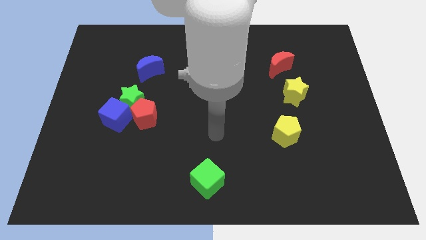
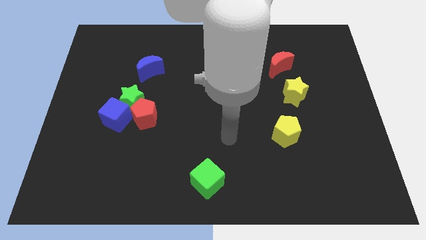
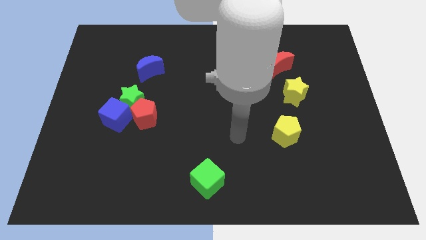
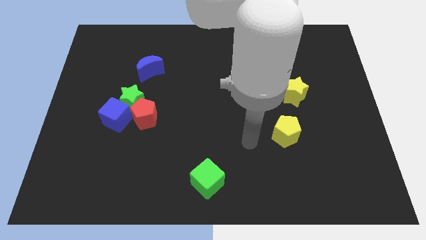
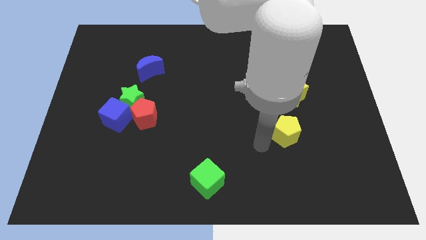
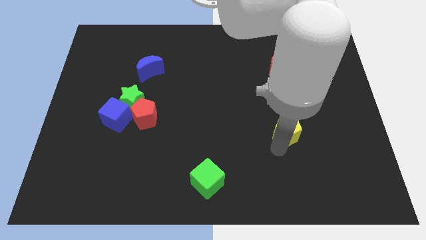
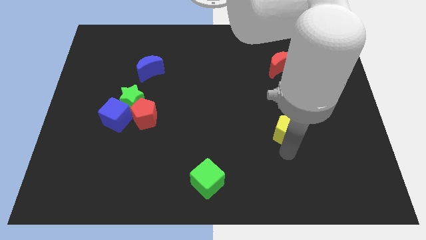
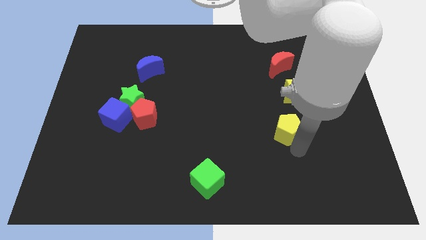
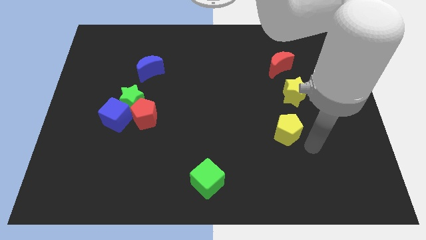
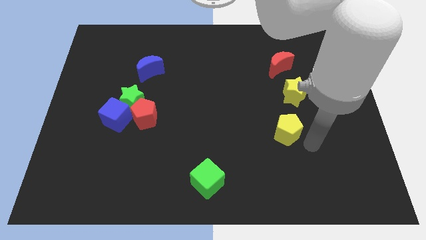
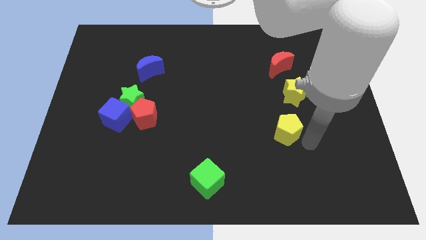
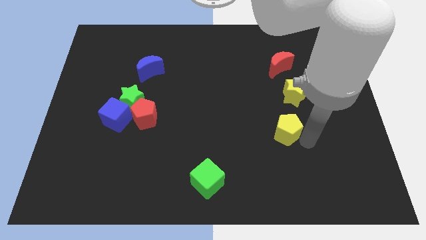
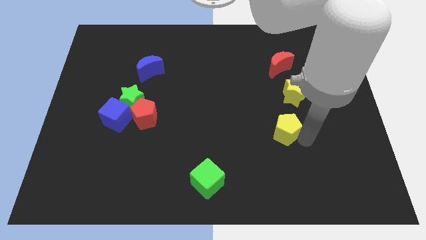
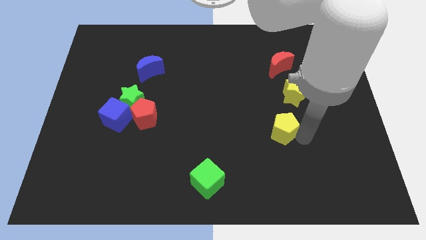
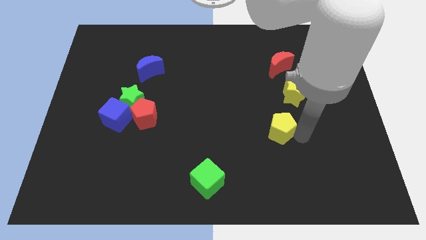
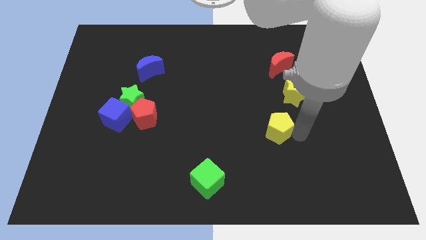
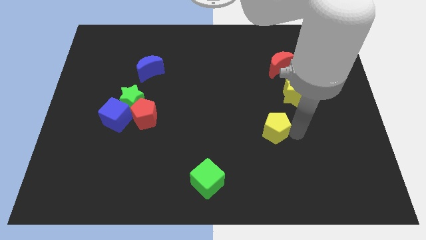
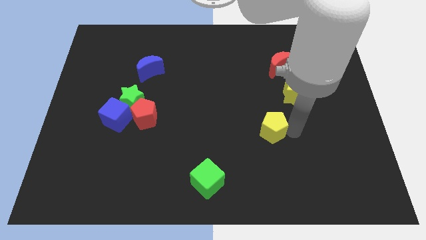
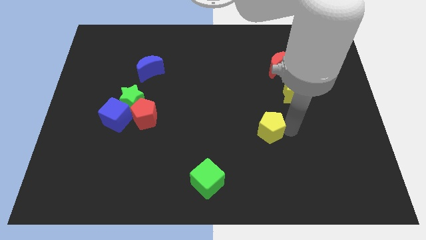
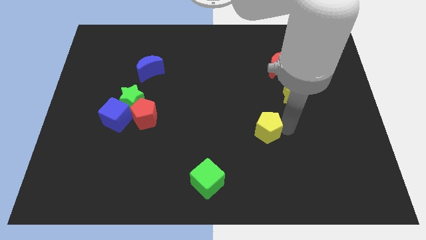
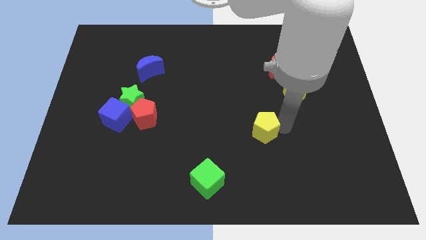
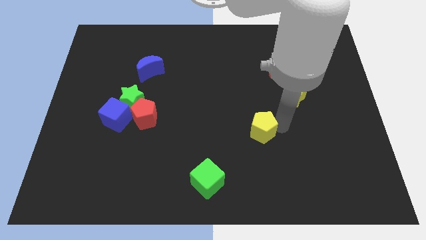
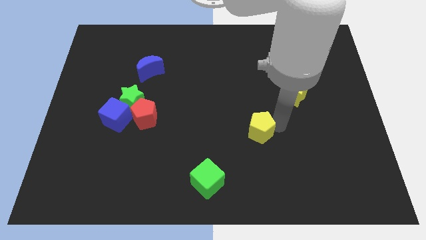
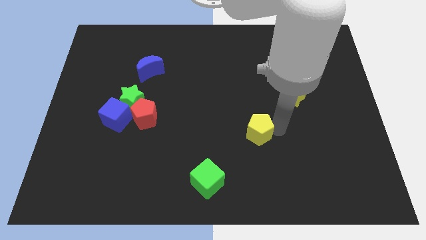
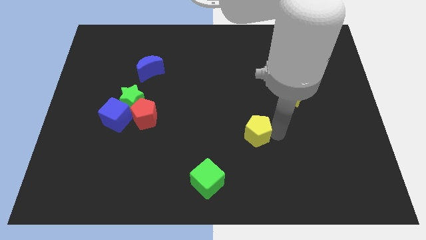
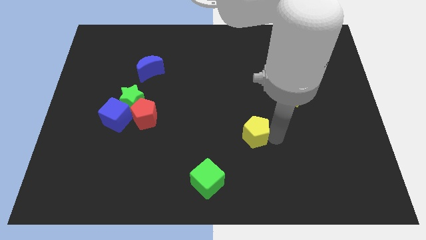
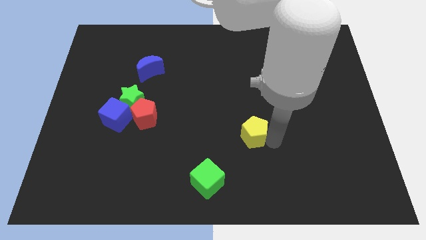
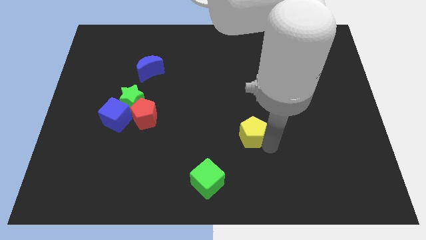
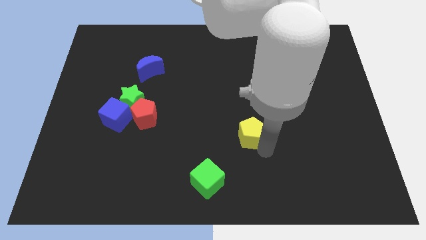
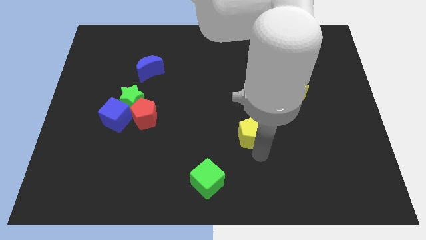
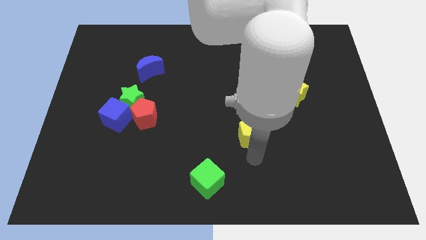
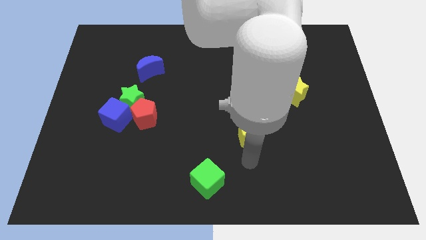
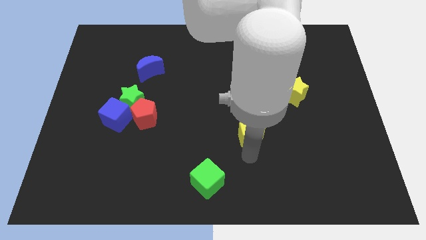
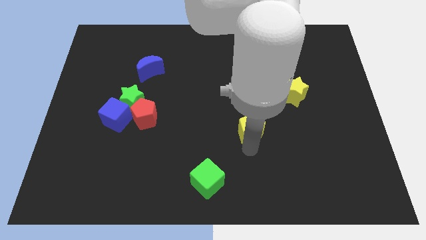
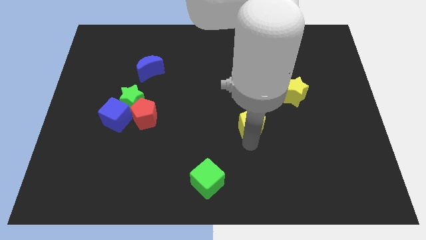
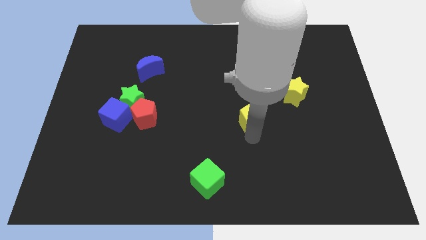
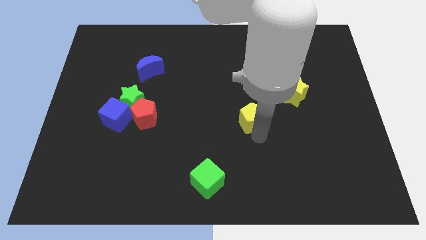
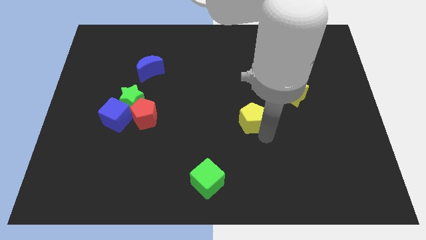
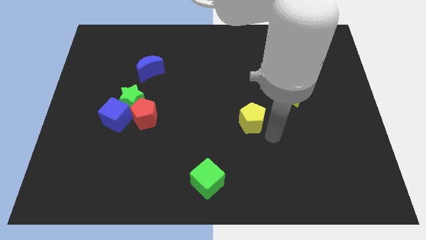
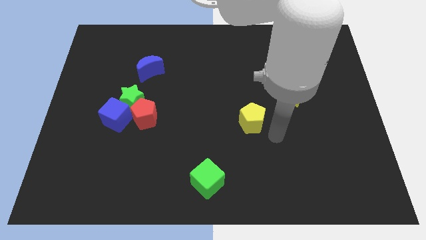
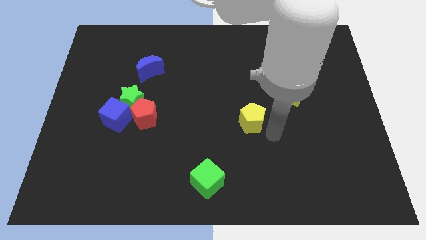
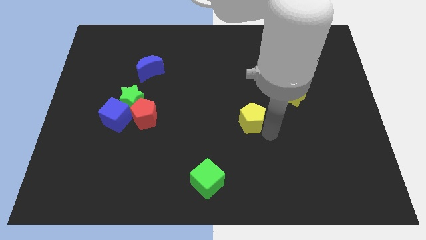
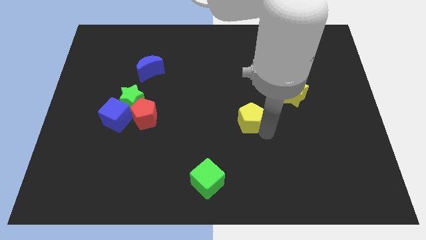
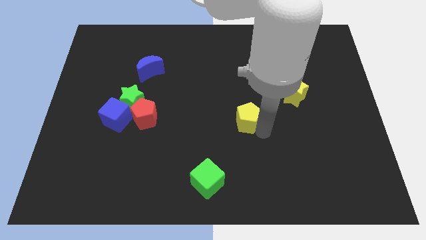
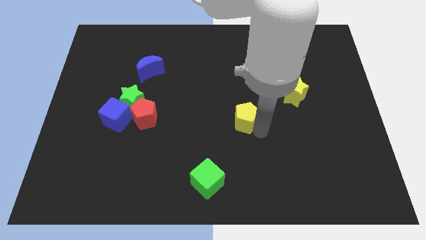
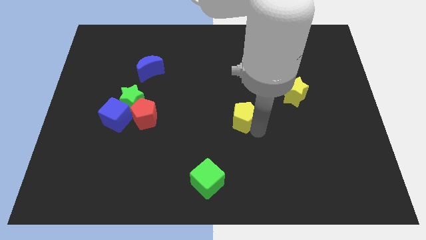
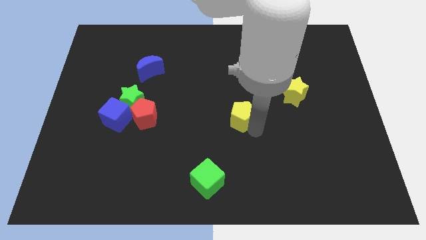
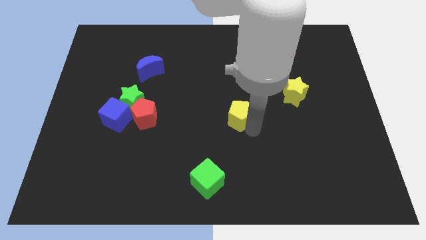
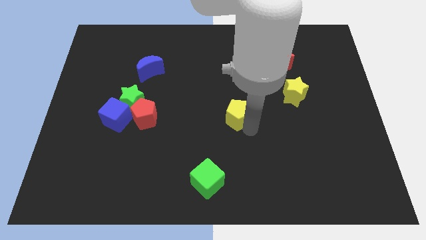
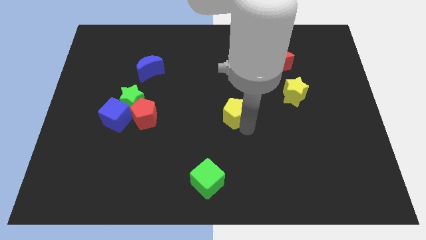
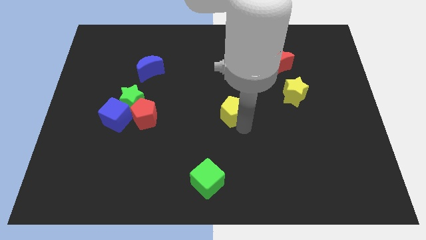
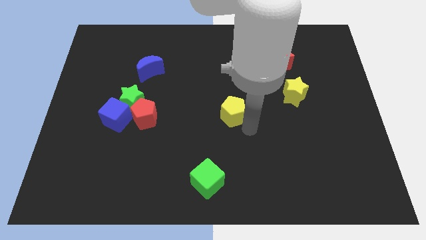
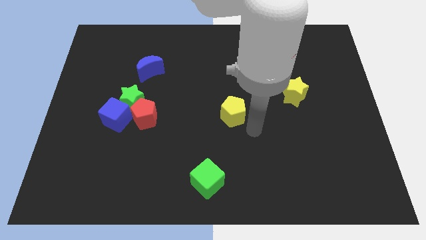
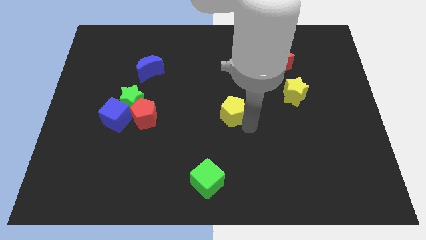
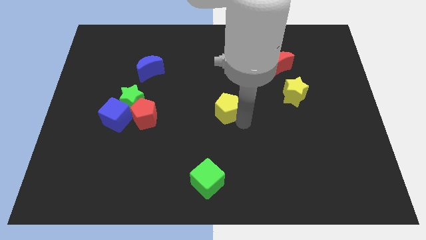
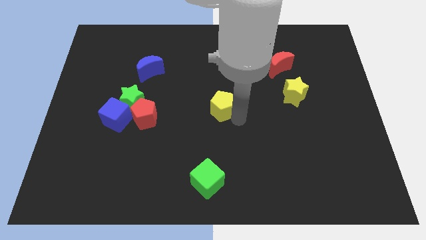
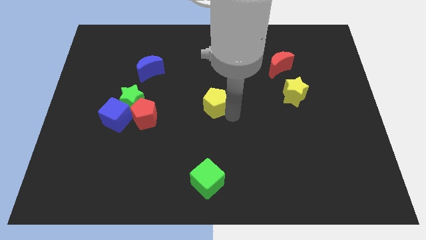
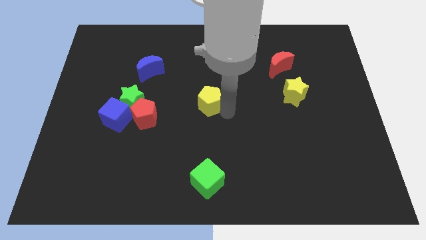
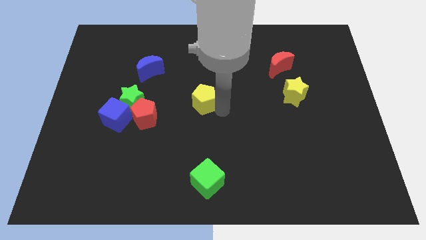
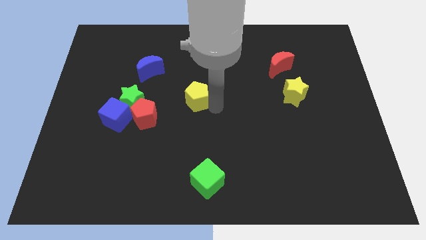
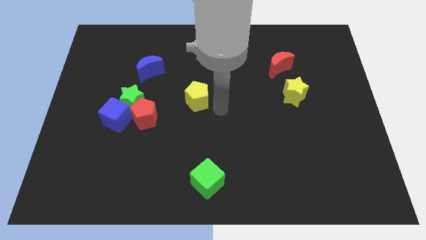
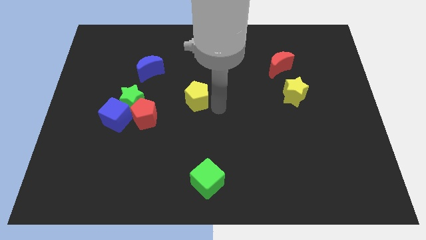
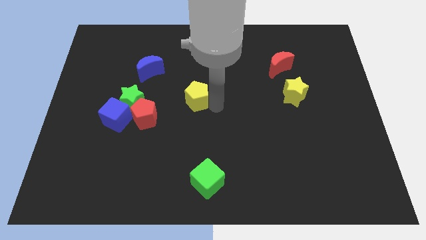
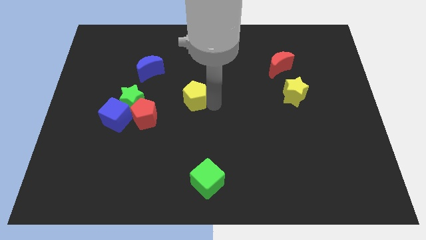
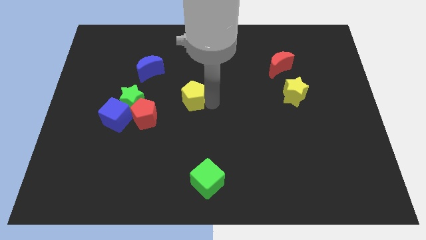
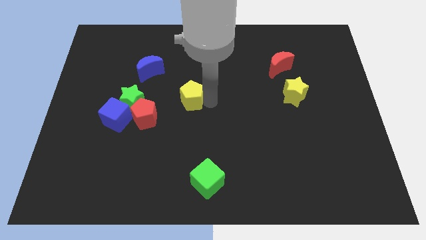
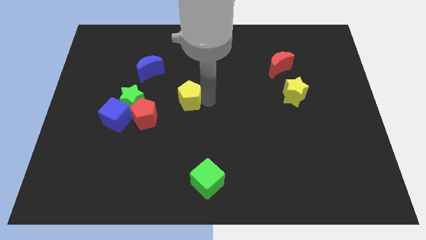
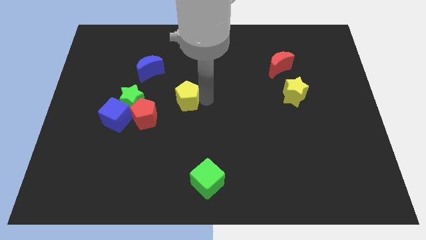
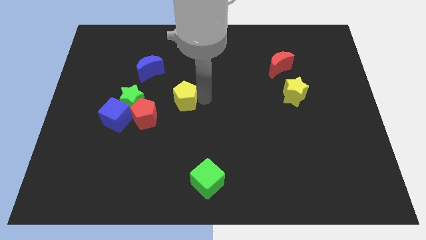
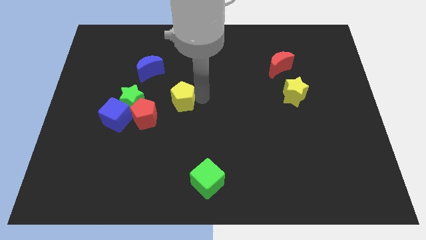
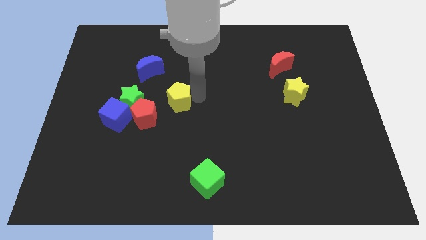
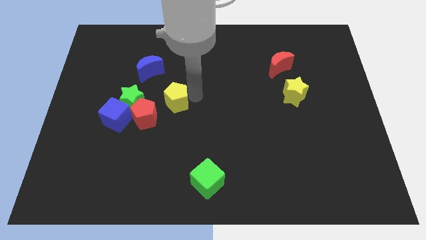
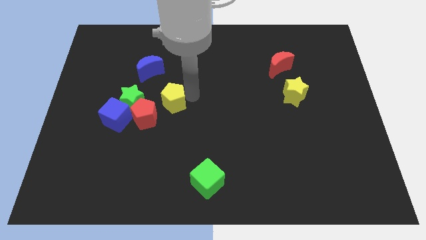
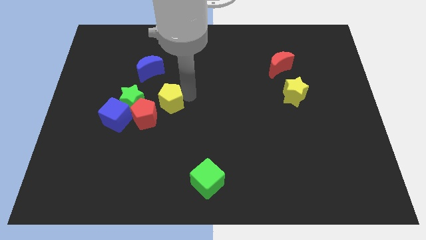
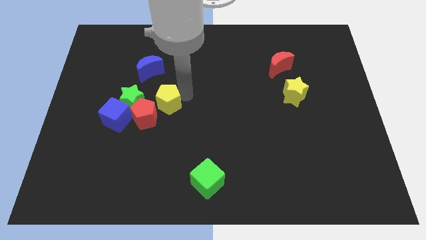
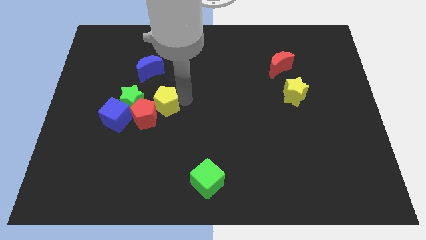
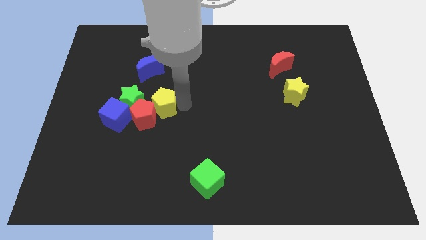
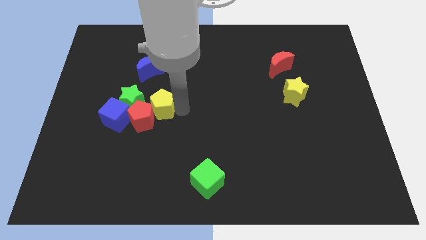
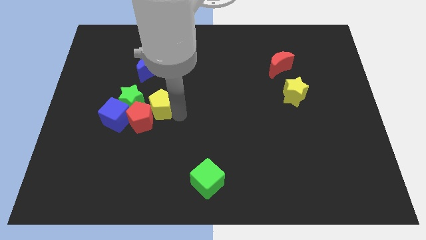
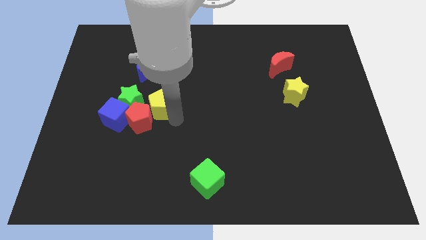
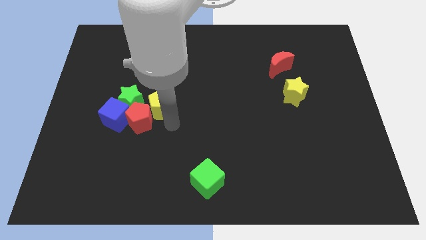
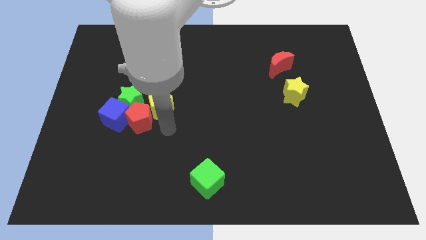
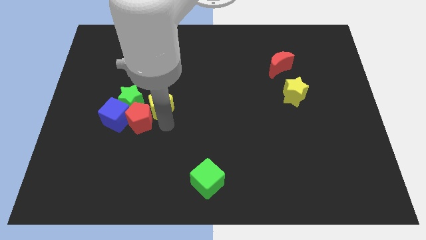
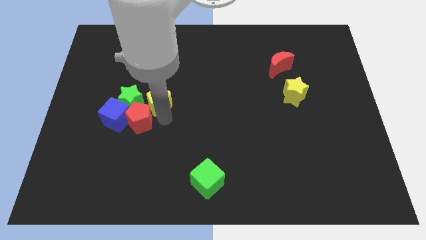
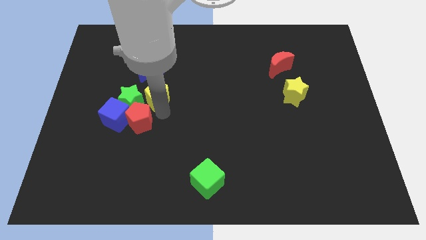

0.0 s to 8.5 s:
move the yellow pentagon to the top right side of the green star
